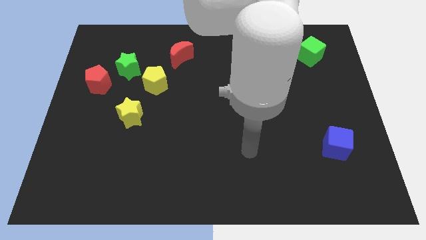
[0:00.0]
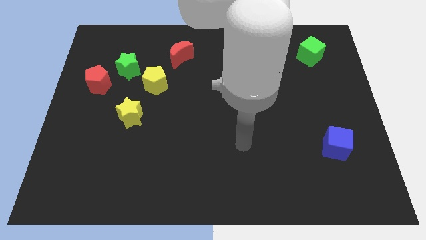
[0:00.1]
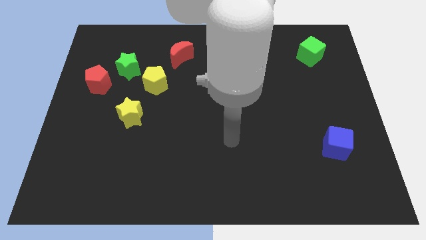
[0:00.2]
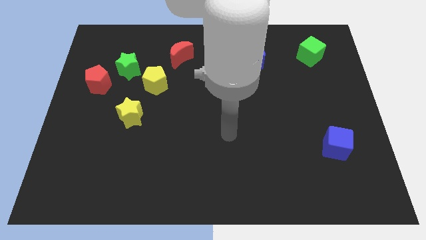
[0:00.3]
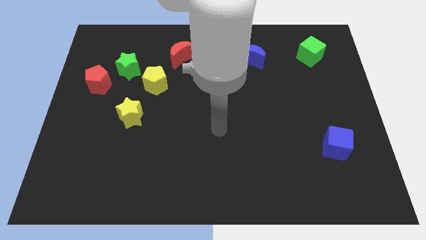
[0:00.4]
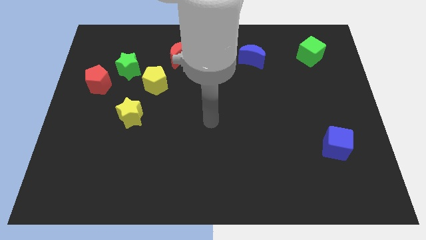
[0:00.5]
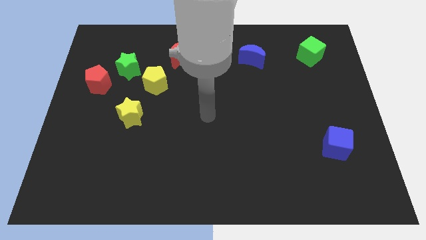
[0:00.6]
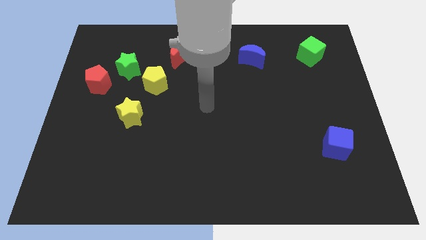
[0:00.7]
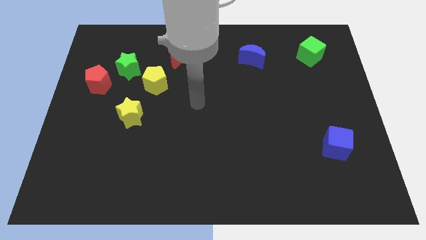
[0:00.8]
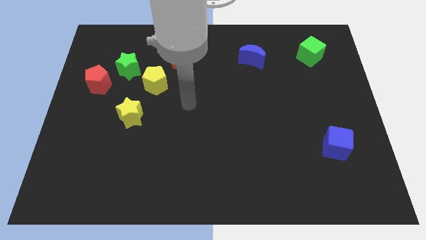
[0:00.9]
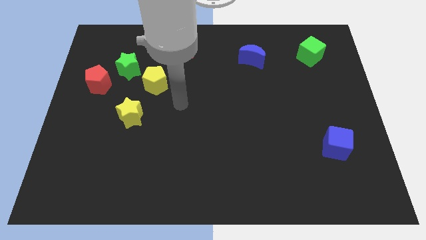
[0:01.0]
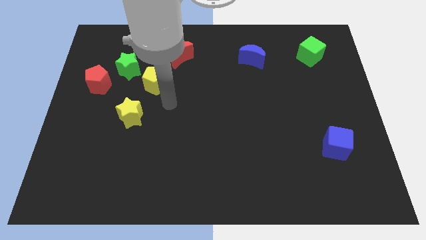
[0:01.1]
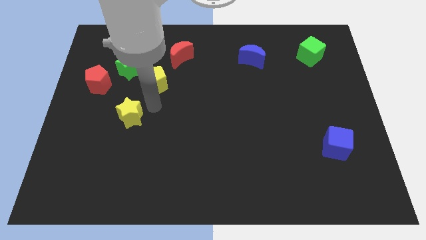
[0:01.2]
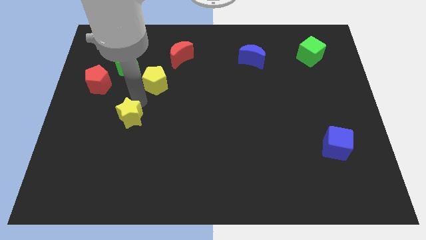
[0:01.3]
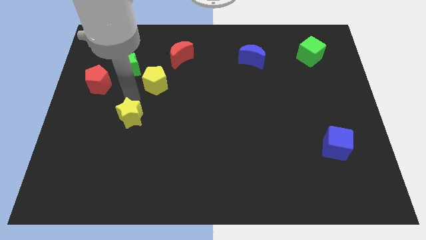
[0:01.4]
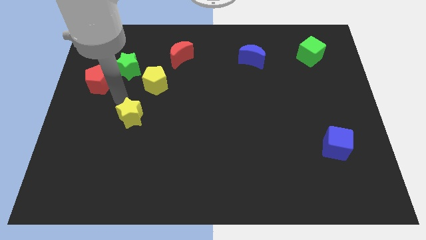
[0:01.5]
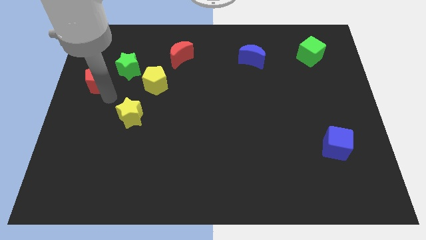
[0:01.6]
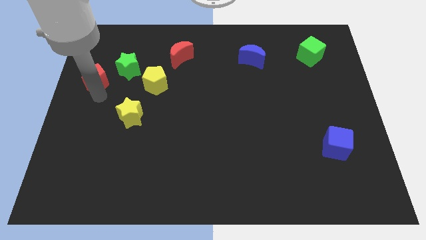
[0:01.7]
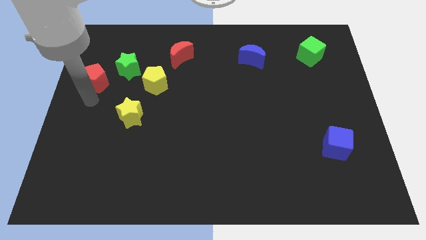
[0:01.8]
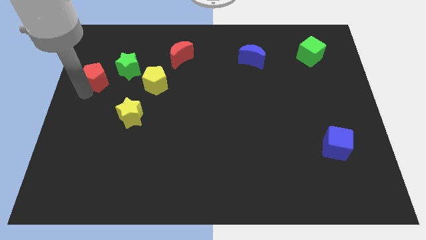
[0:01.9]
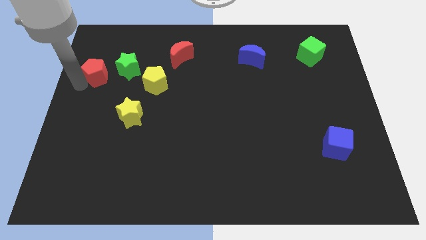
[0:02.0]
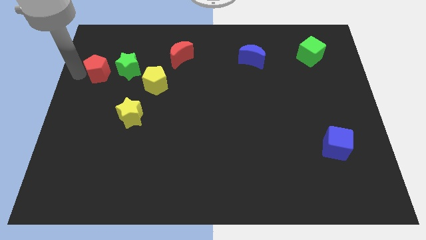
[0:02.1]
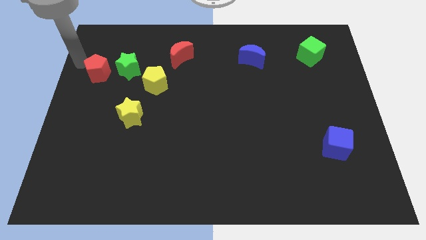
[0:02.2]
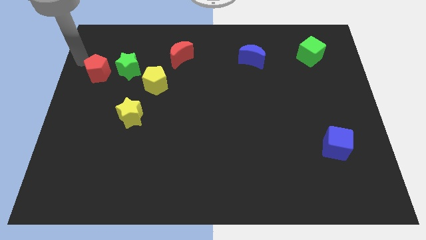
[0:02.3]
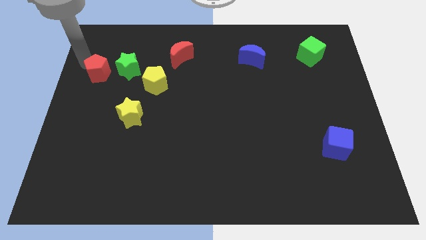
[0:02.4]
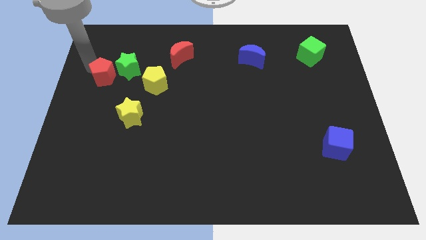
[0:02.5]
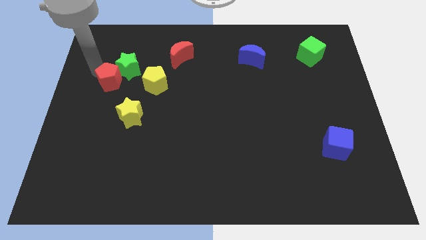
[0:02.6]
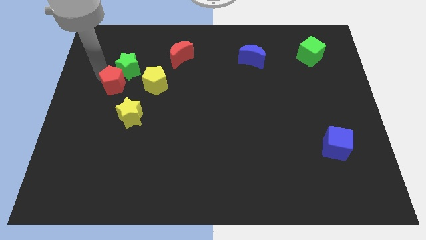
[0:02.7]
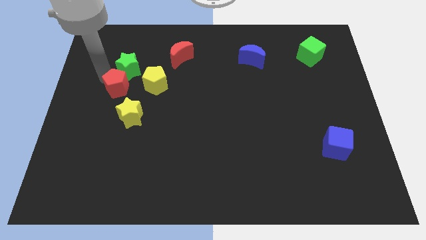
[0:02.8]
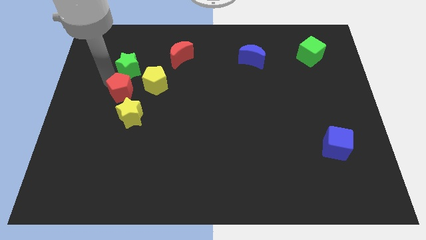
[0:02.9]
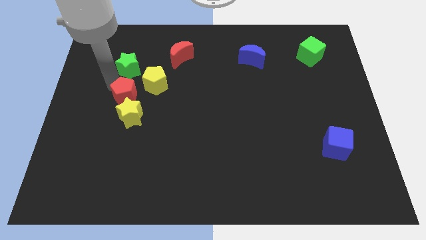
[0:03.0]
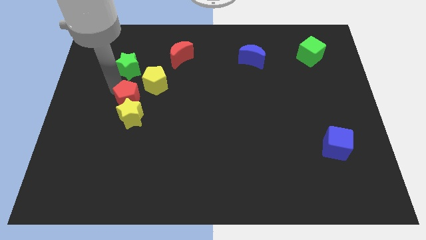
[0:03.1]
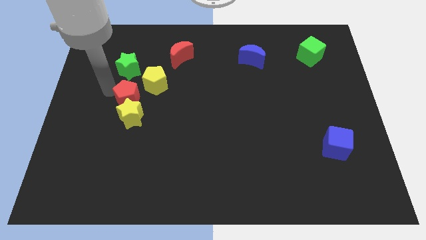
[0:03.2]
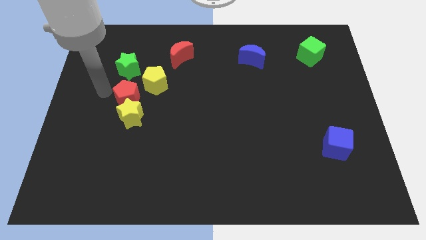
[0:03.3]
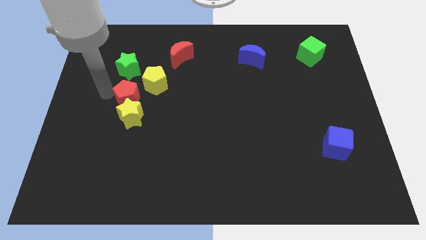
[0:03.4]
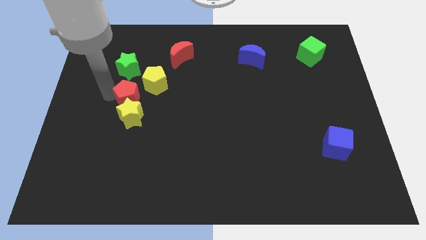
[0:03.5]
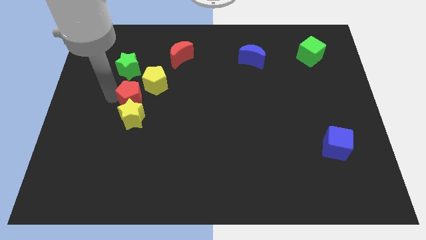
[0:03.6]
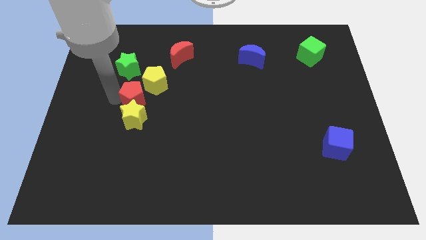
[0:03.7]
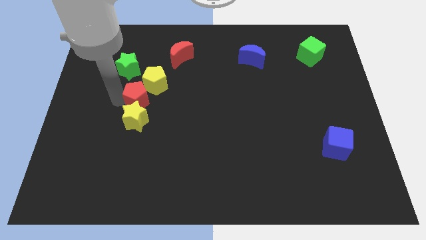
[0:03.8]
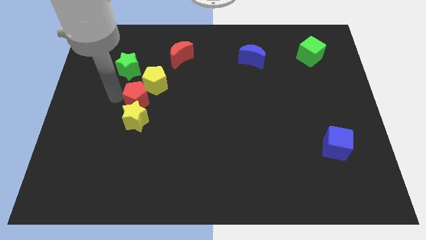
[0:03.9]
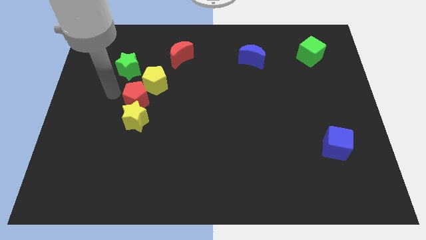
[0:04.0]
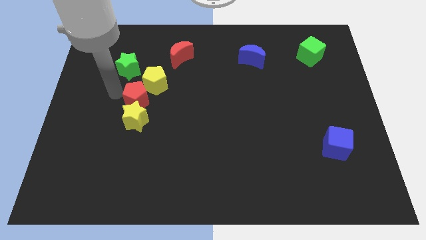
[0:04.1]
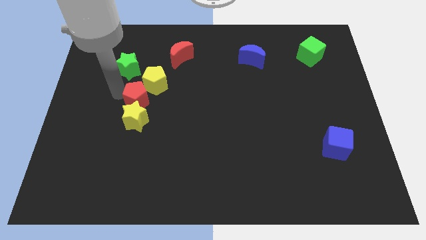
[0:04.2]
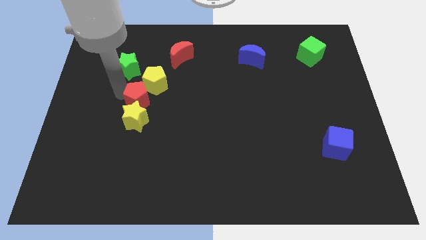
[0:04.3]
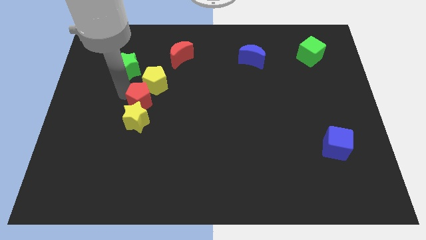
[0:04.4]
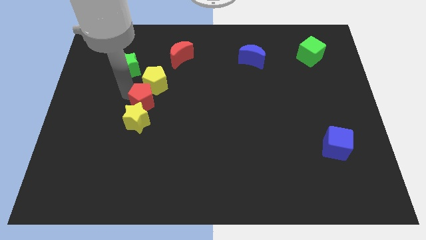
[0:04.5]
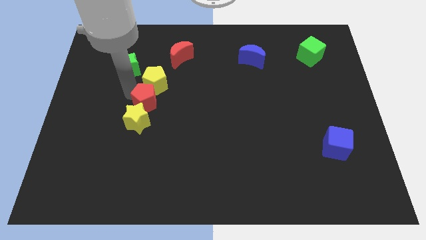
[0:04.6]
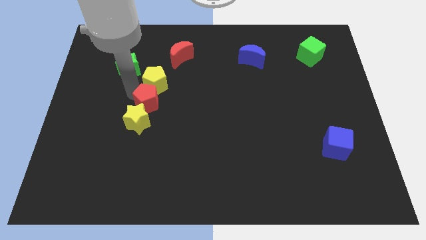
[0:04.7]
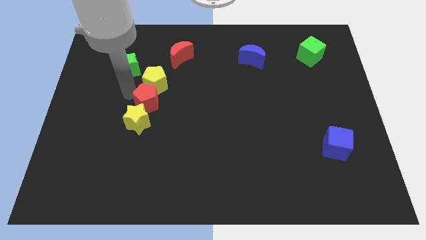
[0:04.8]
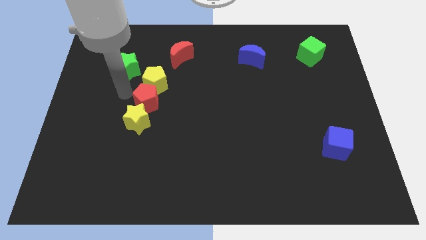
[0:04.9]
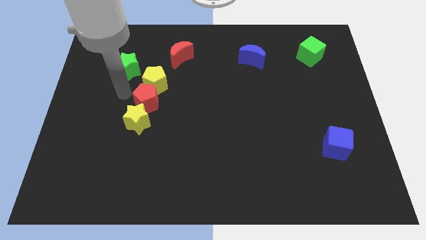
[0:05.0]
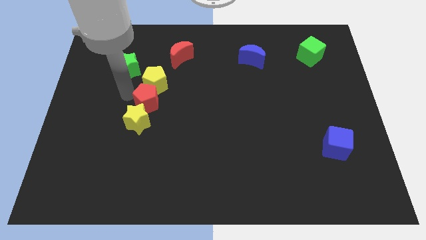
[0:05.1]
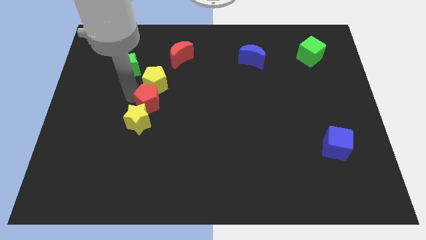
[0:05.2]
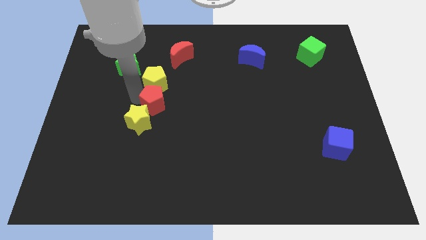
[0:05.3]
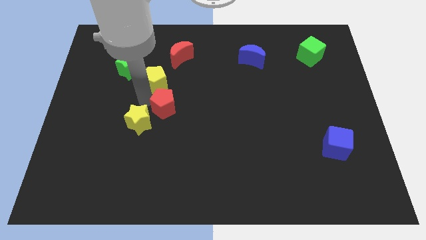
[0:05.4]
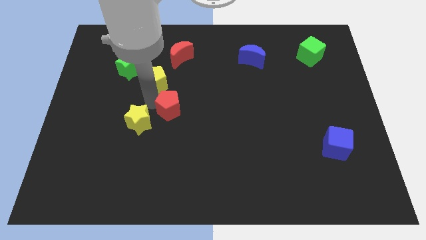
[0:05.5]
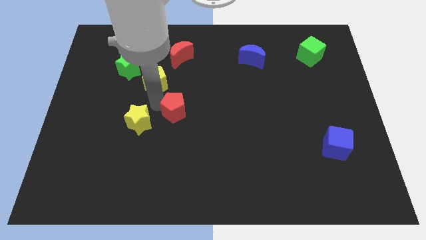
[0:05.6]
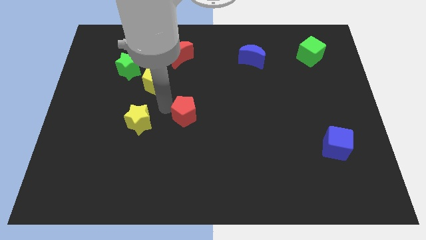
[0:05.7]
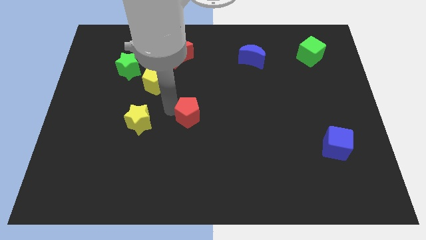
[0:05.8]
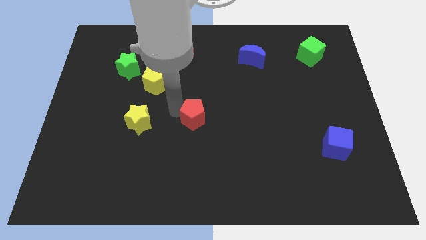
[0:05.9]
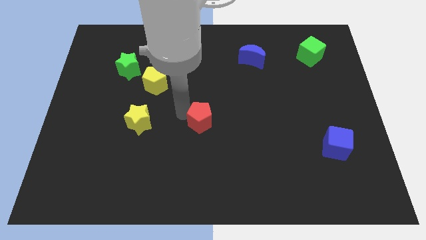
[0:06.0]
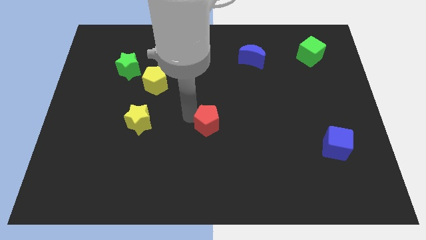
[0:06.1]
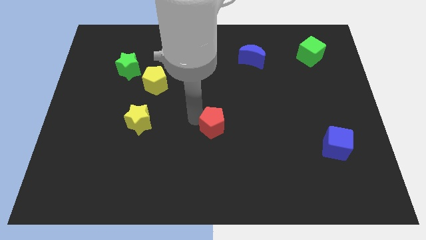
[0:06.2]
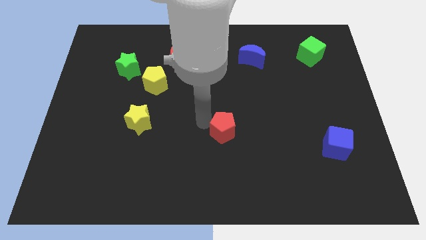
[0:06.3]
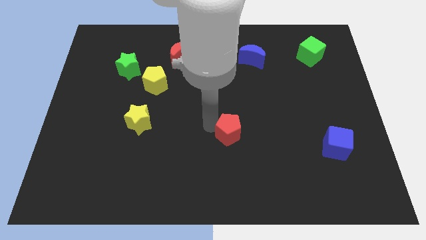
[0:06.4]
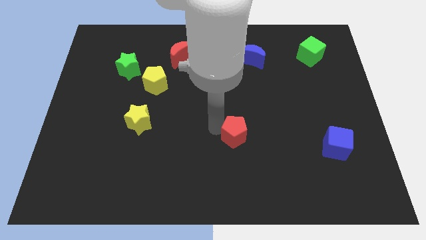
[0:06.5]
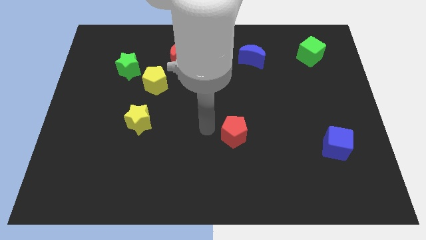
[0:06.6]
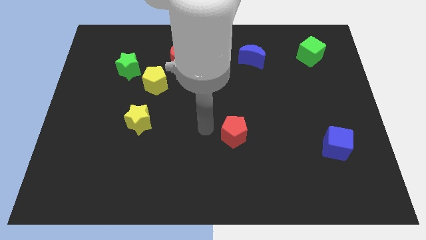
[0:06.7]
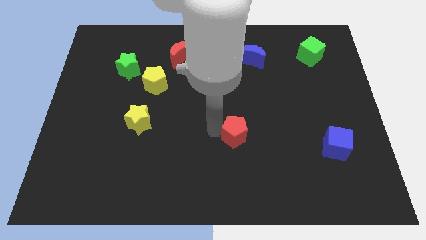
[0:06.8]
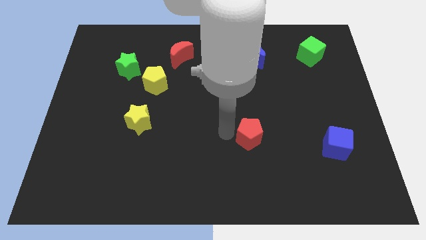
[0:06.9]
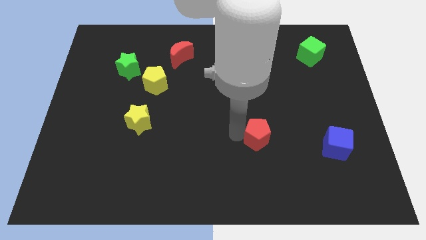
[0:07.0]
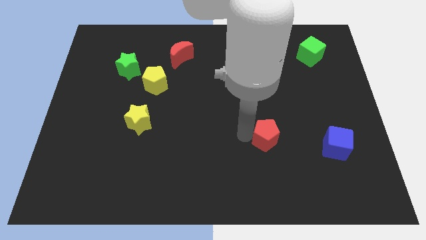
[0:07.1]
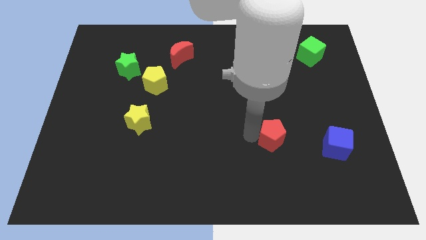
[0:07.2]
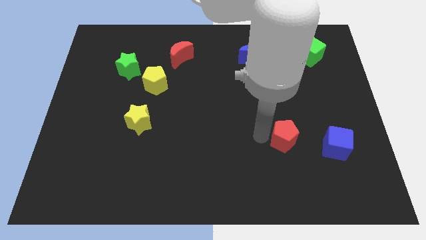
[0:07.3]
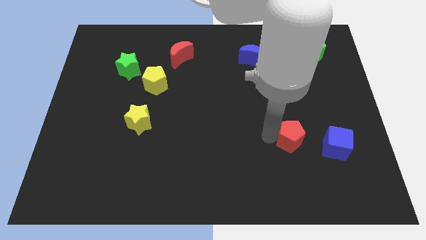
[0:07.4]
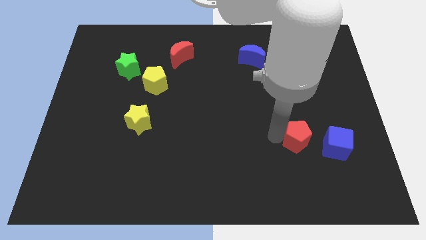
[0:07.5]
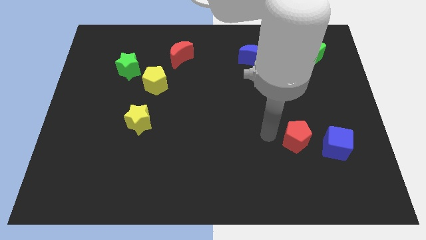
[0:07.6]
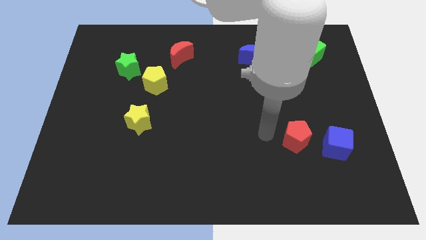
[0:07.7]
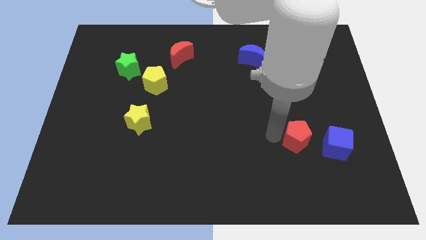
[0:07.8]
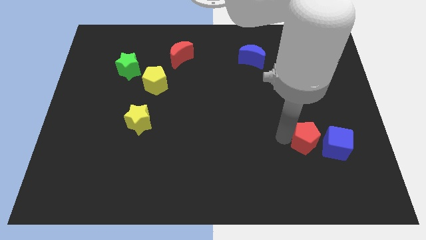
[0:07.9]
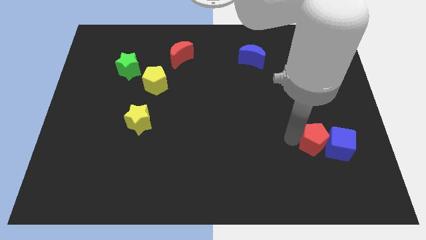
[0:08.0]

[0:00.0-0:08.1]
push the red pentagon close to the blue cube
